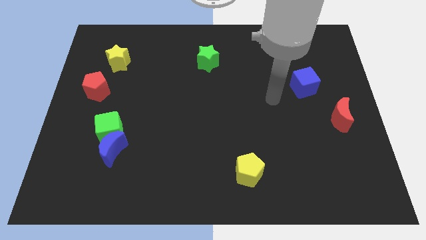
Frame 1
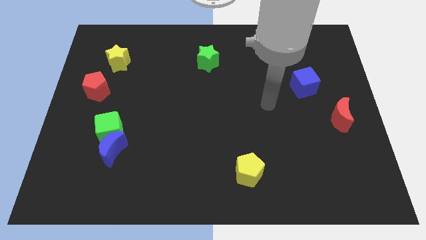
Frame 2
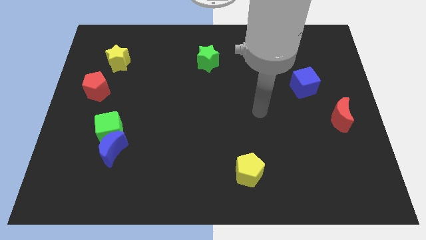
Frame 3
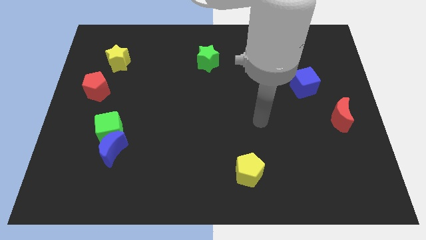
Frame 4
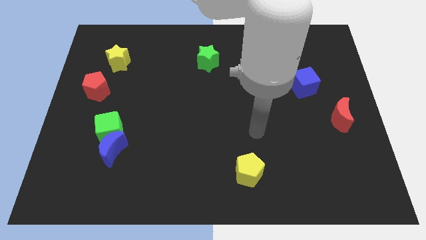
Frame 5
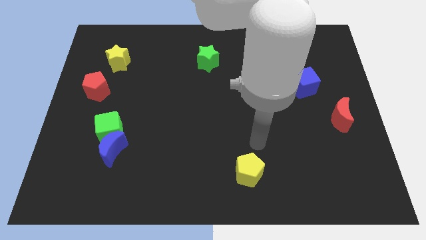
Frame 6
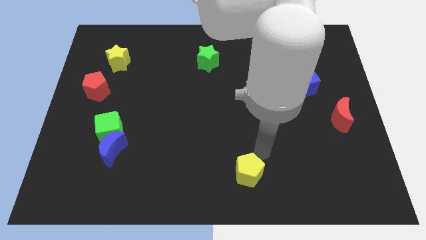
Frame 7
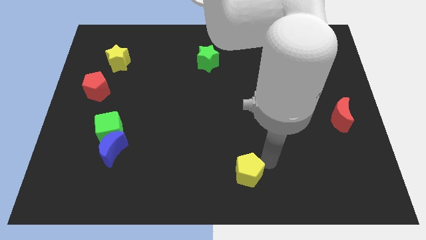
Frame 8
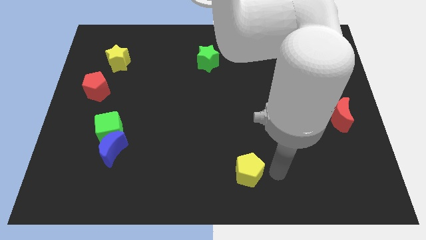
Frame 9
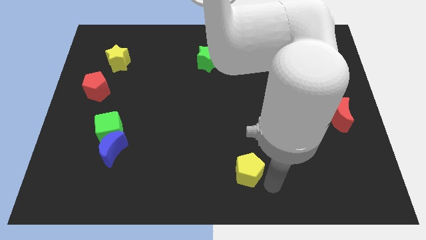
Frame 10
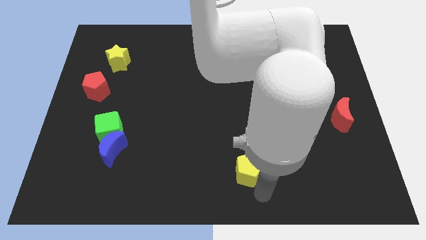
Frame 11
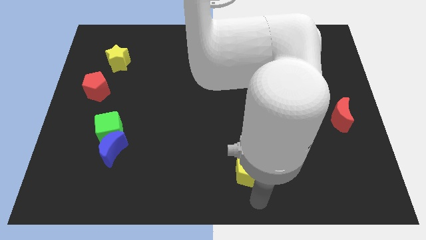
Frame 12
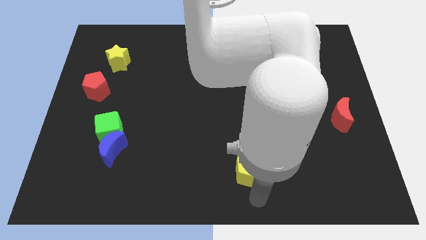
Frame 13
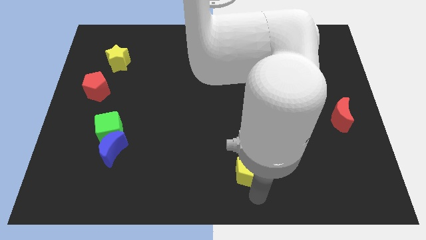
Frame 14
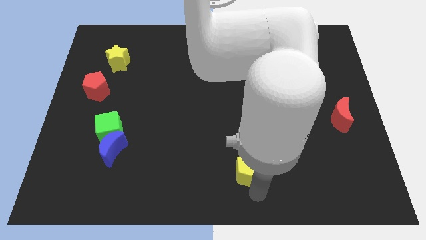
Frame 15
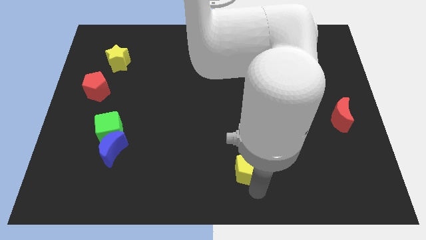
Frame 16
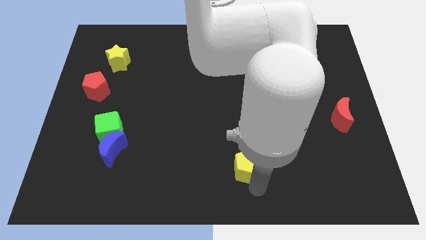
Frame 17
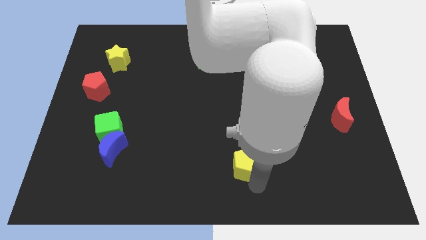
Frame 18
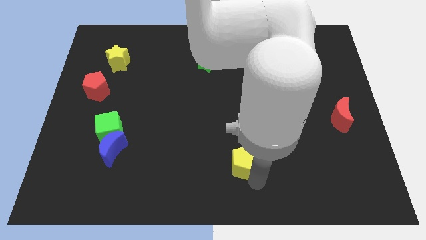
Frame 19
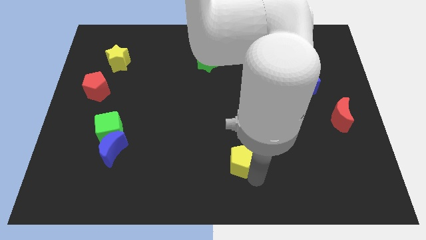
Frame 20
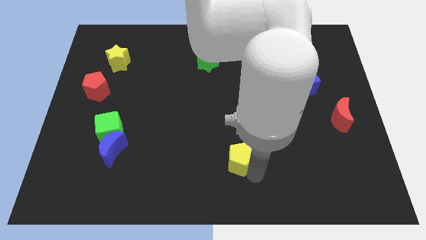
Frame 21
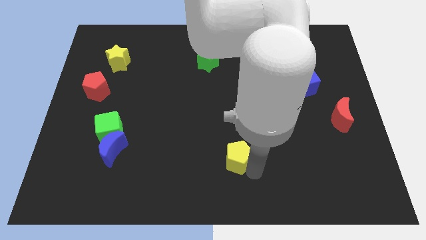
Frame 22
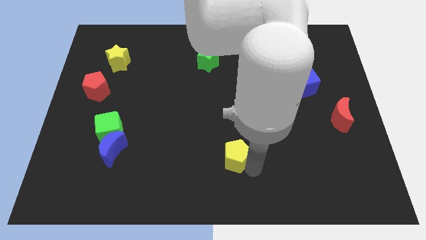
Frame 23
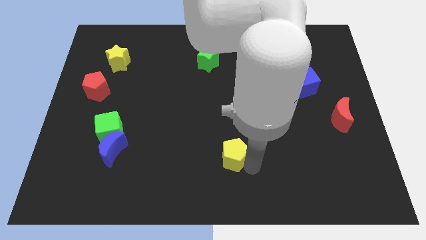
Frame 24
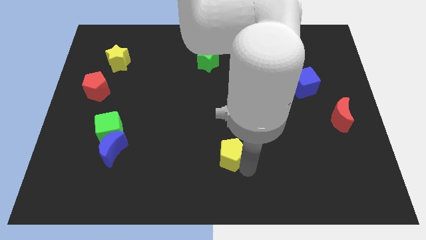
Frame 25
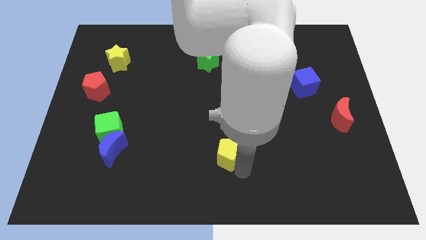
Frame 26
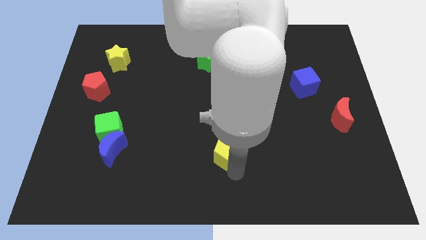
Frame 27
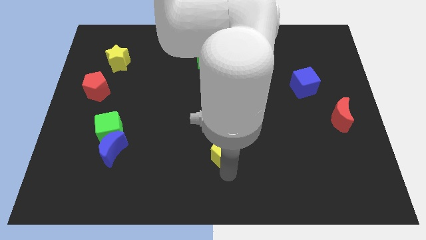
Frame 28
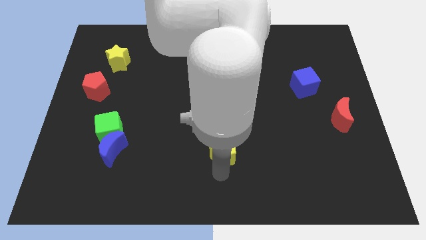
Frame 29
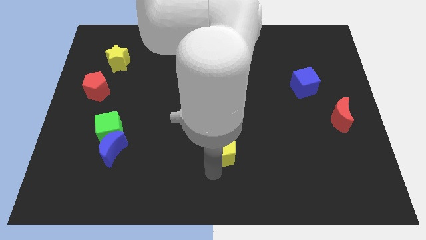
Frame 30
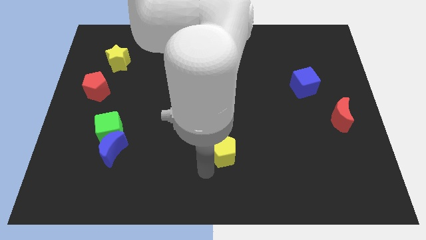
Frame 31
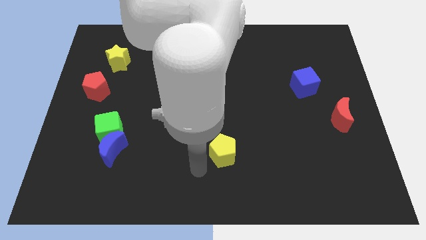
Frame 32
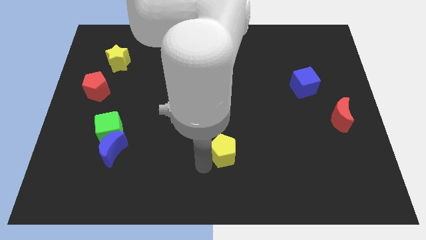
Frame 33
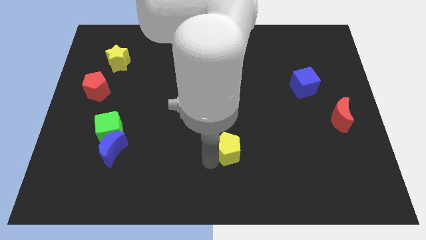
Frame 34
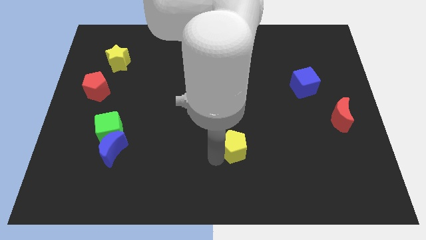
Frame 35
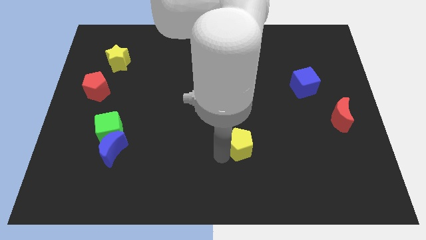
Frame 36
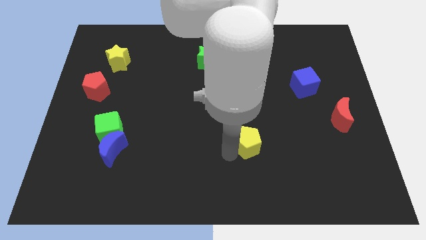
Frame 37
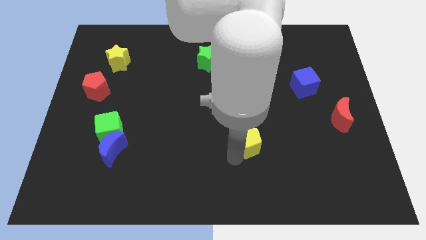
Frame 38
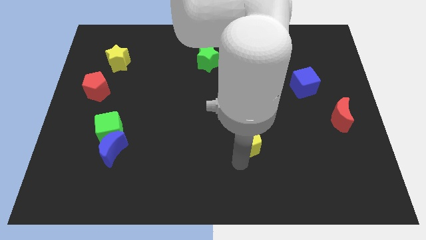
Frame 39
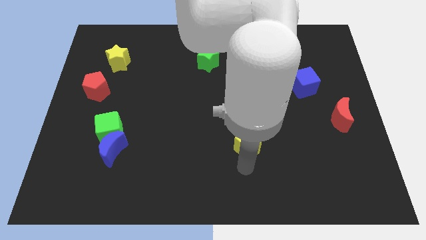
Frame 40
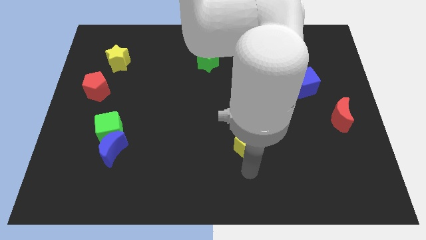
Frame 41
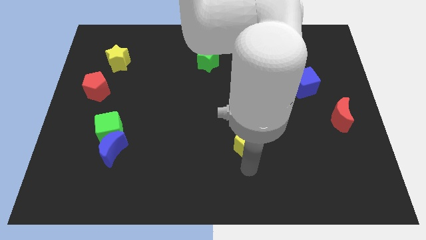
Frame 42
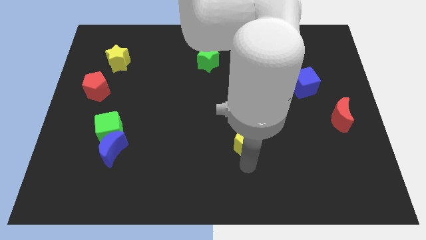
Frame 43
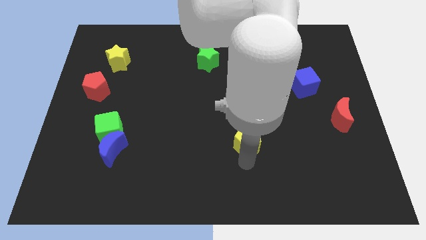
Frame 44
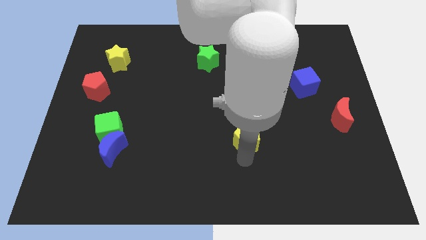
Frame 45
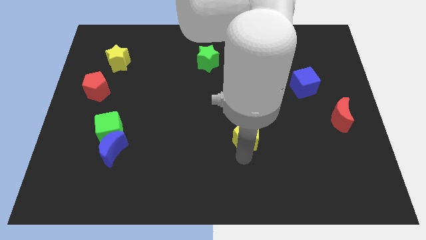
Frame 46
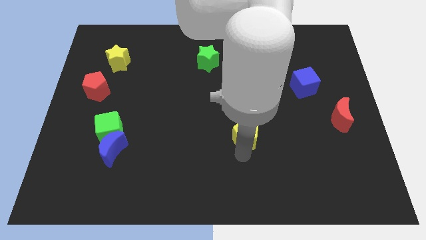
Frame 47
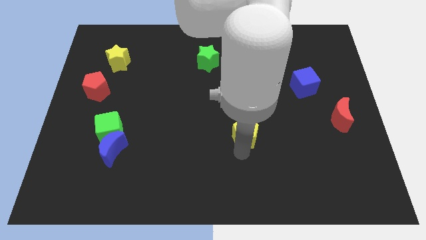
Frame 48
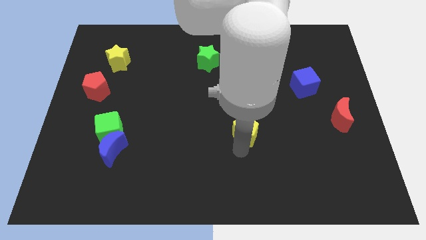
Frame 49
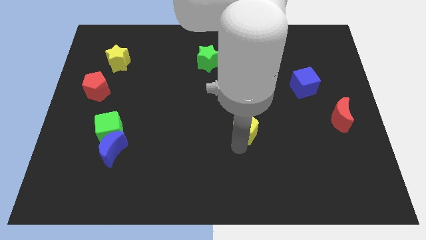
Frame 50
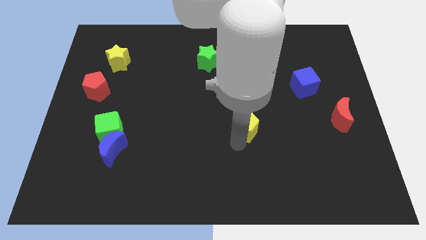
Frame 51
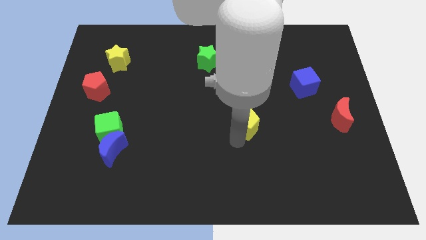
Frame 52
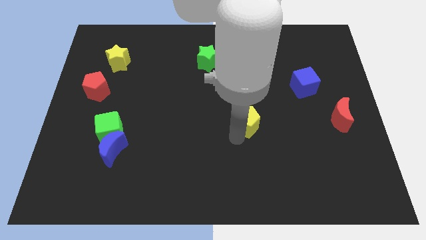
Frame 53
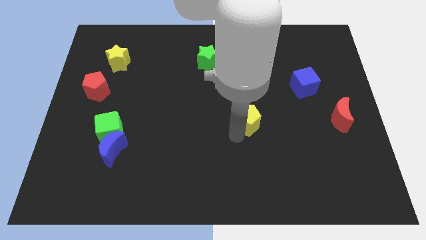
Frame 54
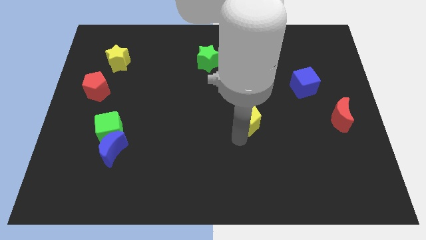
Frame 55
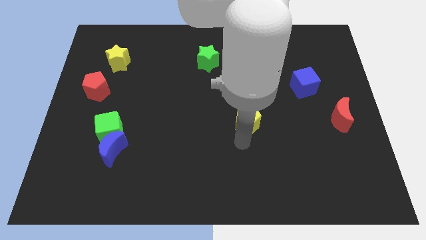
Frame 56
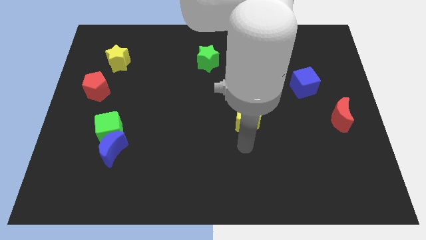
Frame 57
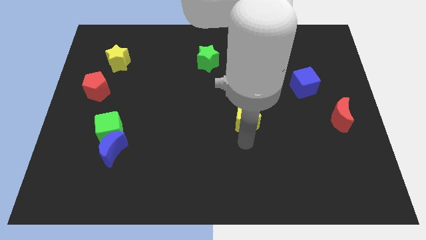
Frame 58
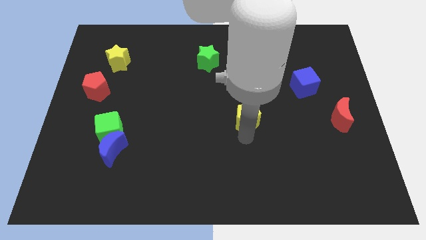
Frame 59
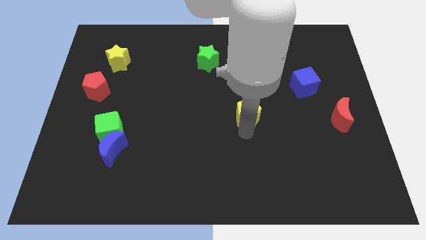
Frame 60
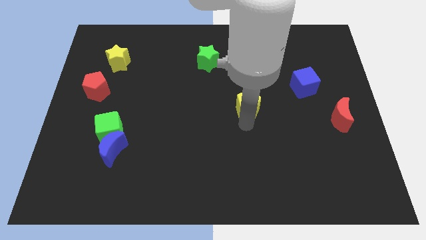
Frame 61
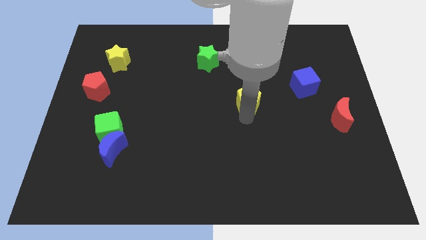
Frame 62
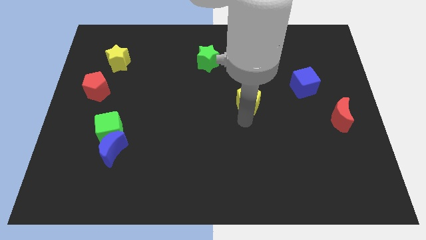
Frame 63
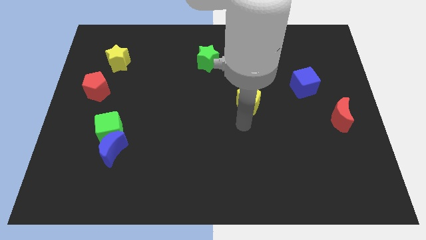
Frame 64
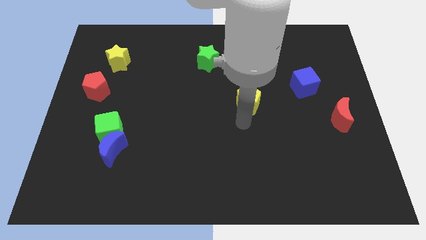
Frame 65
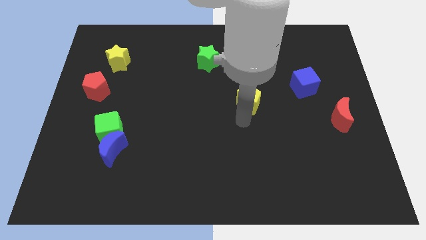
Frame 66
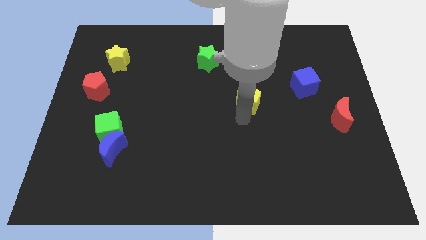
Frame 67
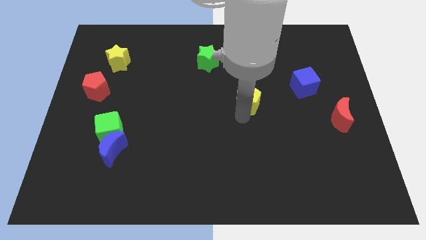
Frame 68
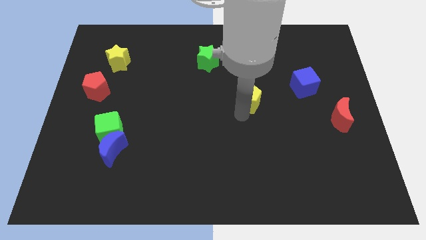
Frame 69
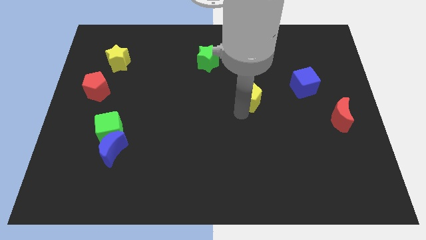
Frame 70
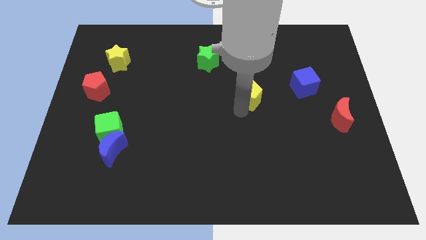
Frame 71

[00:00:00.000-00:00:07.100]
slide the yellow pentagon up

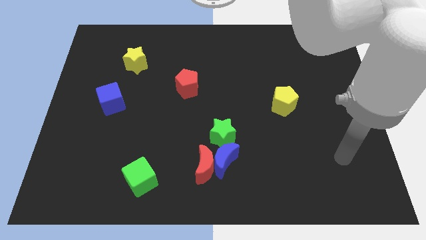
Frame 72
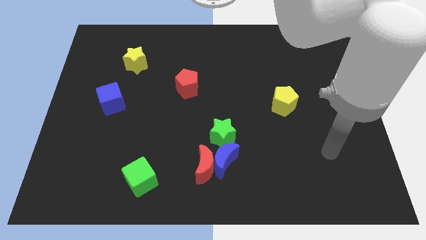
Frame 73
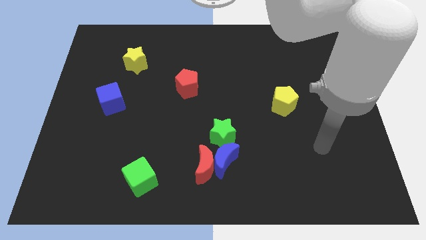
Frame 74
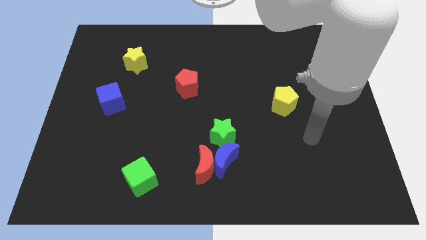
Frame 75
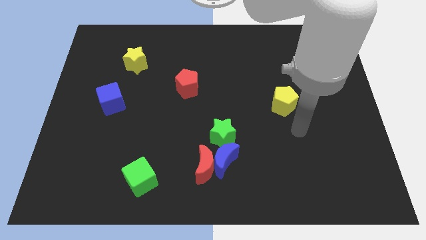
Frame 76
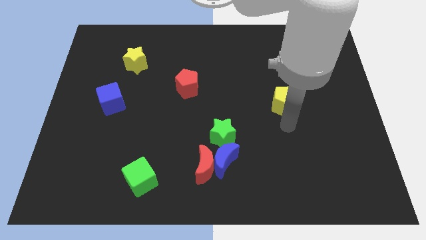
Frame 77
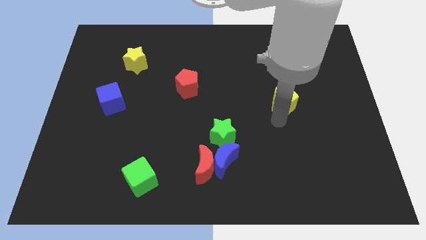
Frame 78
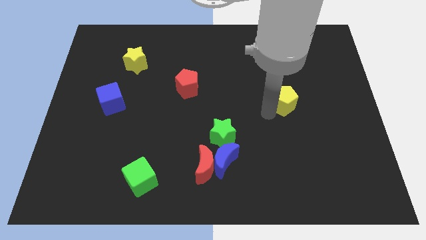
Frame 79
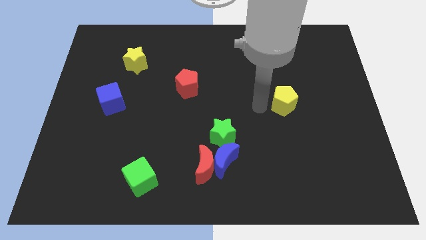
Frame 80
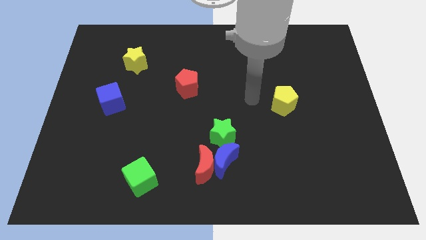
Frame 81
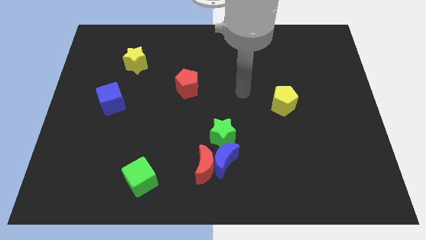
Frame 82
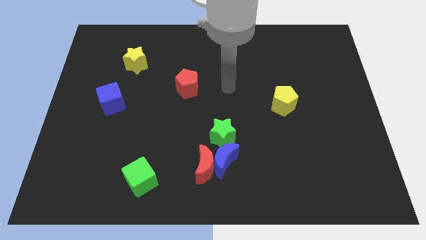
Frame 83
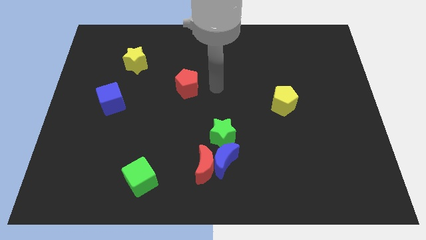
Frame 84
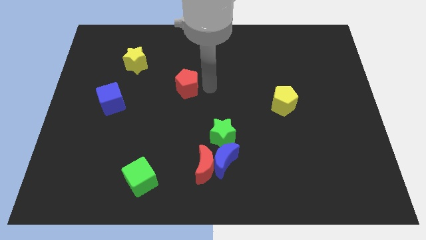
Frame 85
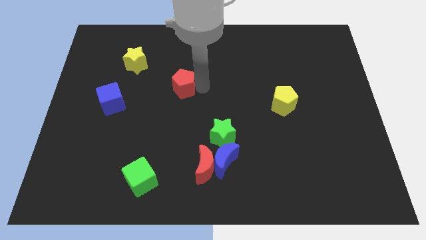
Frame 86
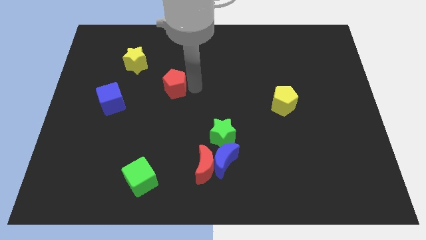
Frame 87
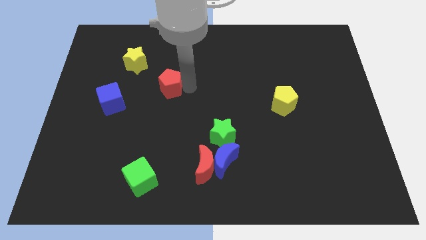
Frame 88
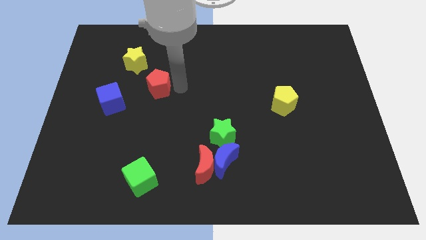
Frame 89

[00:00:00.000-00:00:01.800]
push the red pentagon to the left a bit
